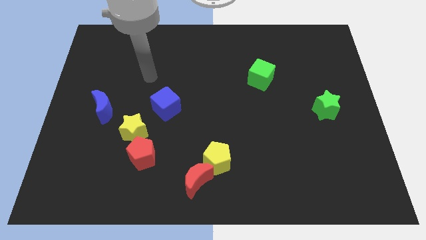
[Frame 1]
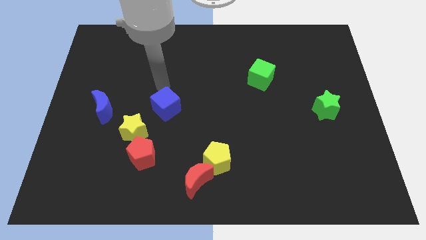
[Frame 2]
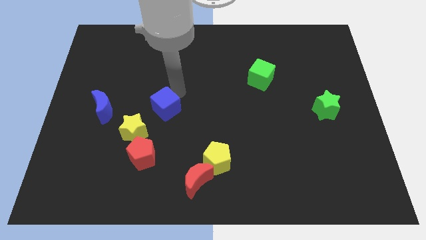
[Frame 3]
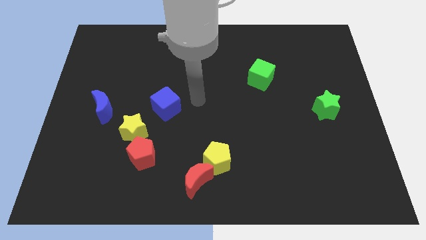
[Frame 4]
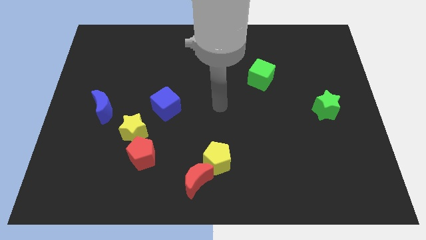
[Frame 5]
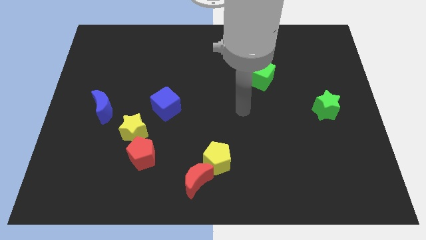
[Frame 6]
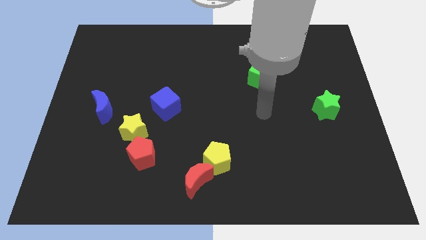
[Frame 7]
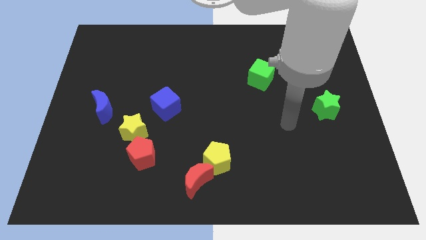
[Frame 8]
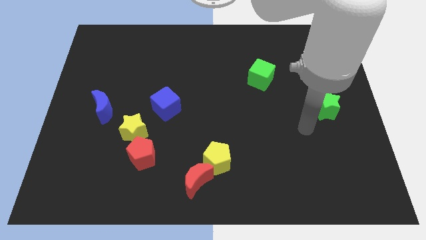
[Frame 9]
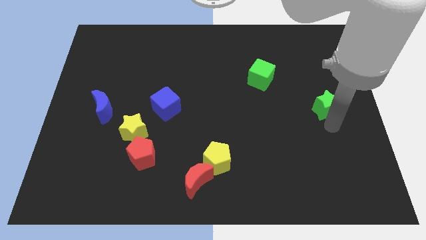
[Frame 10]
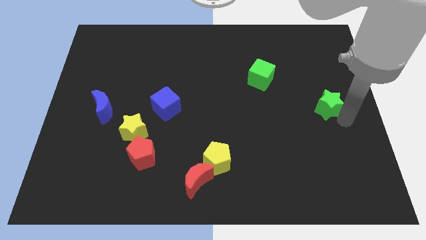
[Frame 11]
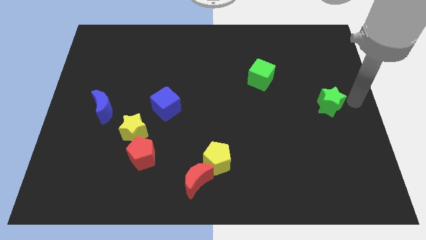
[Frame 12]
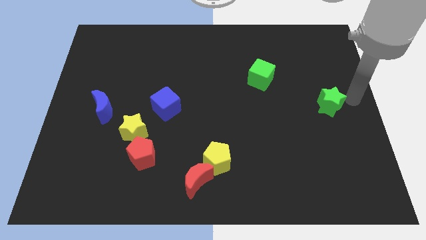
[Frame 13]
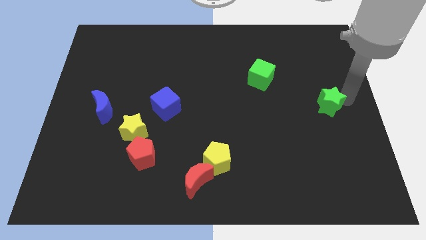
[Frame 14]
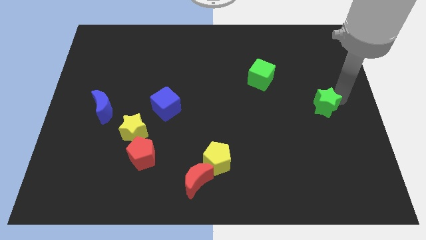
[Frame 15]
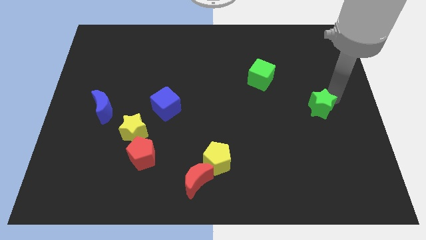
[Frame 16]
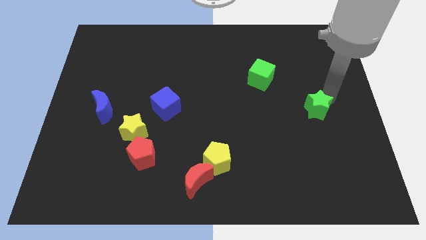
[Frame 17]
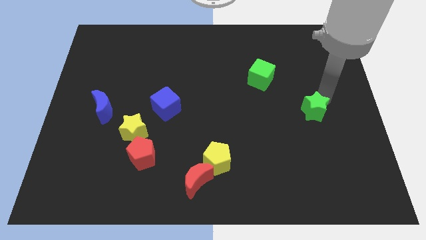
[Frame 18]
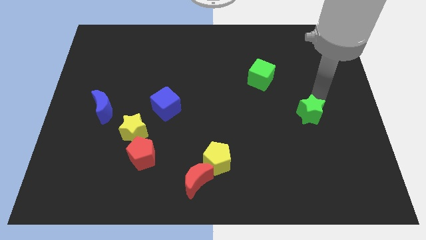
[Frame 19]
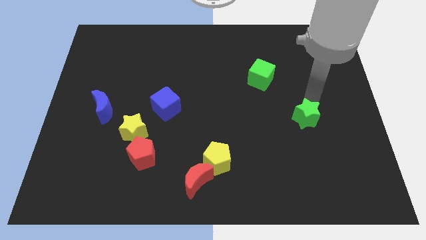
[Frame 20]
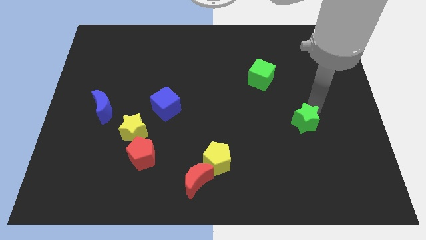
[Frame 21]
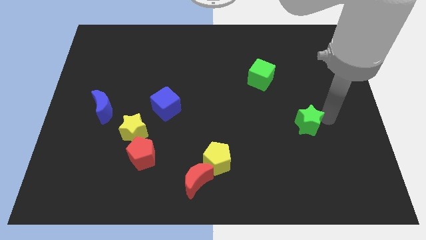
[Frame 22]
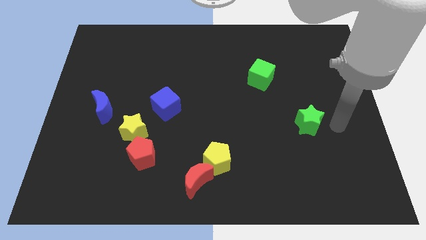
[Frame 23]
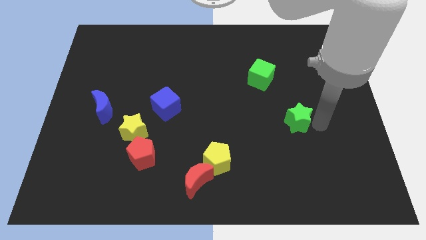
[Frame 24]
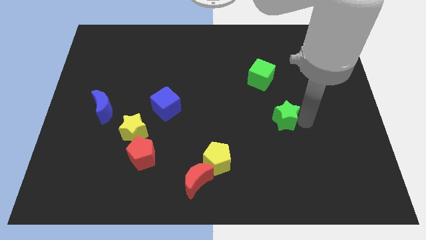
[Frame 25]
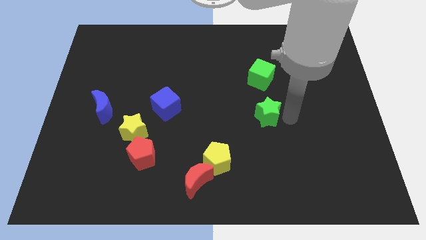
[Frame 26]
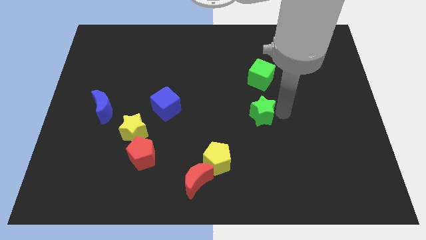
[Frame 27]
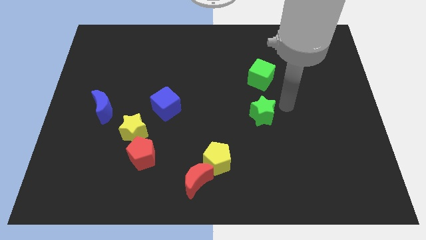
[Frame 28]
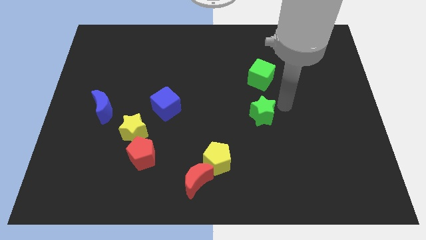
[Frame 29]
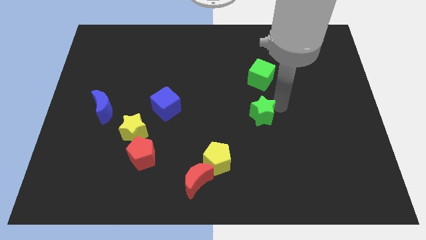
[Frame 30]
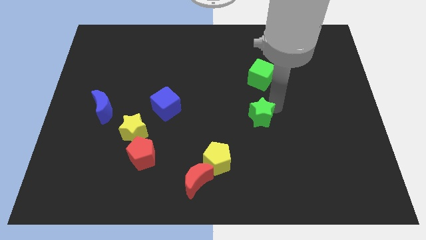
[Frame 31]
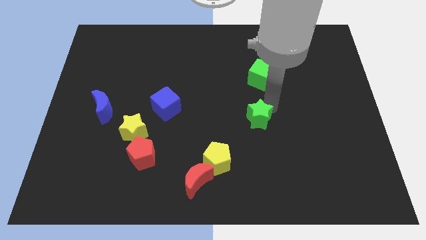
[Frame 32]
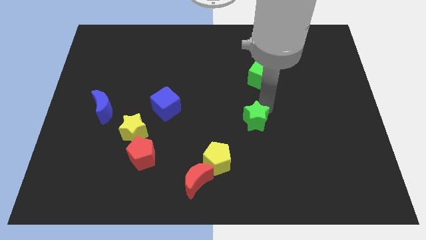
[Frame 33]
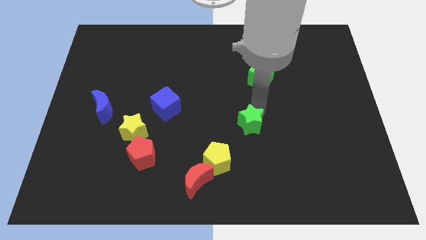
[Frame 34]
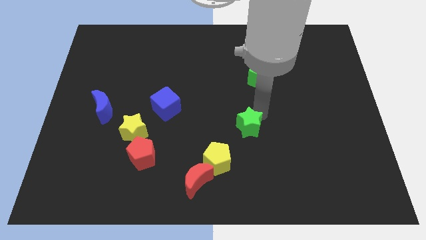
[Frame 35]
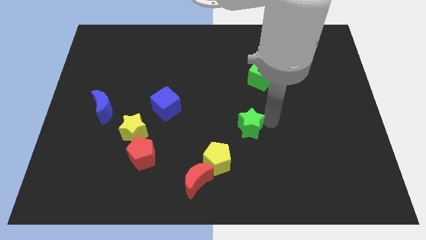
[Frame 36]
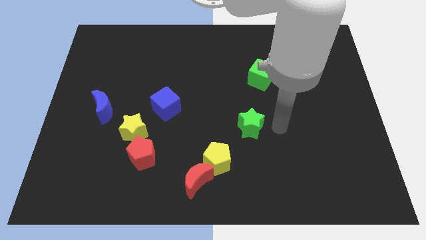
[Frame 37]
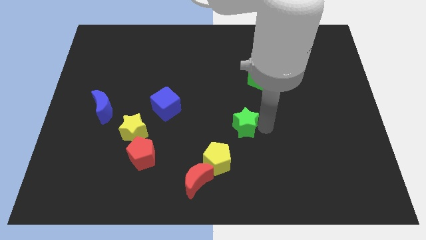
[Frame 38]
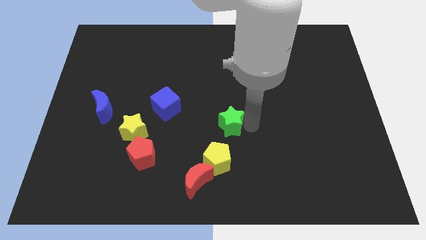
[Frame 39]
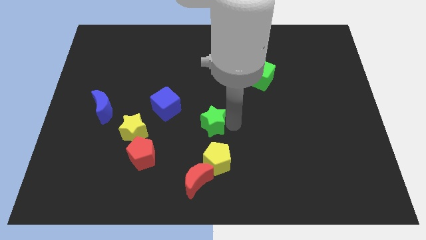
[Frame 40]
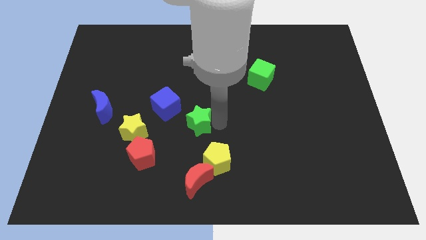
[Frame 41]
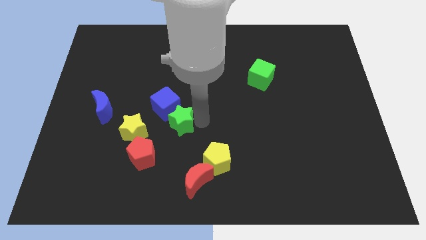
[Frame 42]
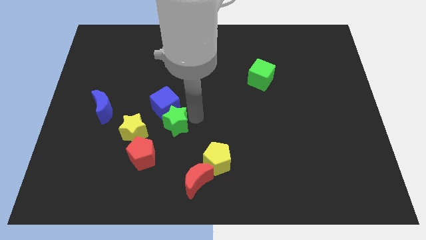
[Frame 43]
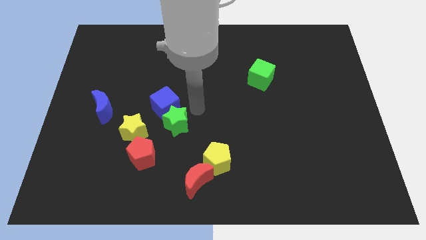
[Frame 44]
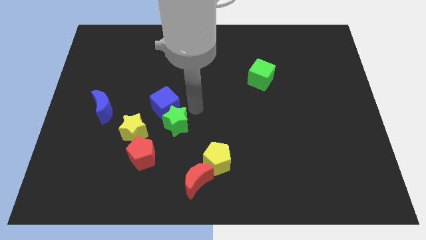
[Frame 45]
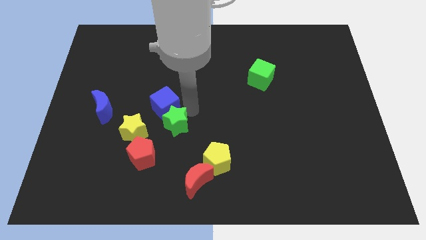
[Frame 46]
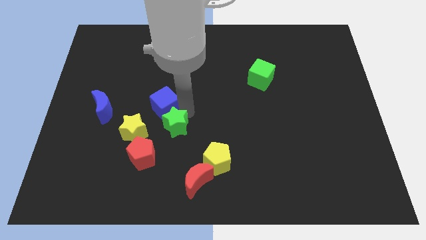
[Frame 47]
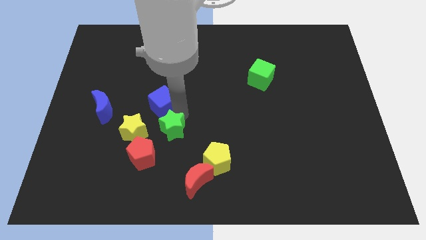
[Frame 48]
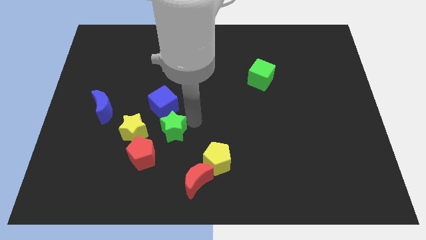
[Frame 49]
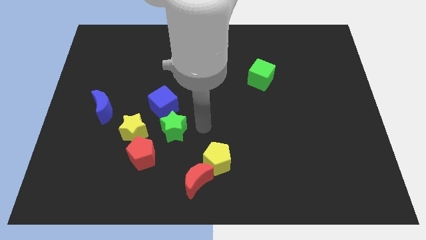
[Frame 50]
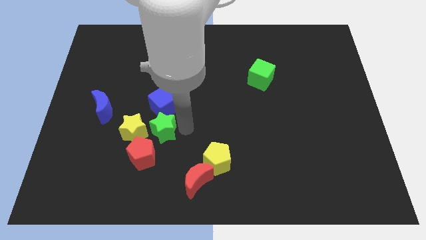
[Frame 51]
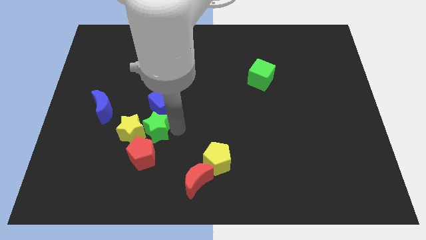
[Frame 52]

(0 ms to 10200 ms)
push the green star towards the yellow star

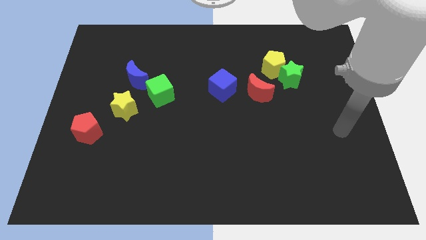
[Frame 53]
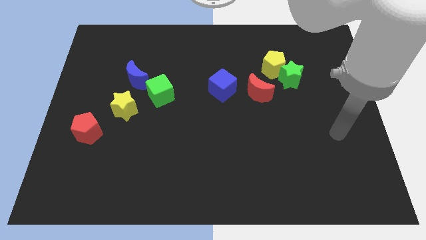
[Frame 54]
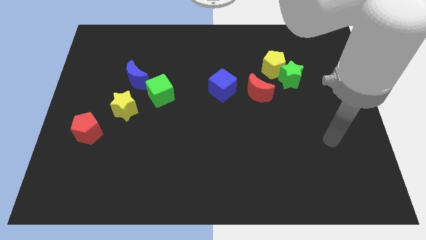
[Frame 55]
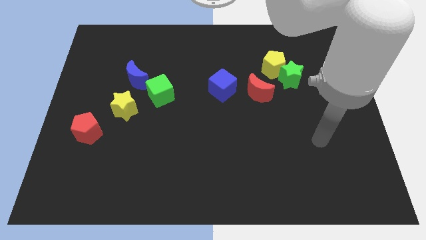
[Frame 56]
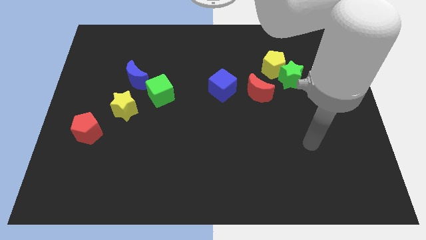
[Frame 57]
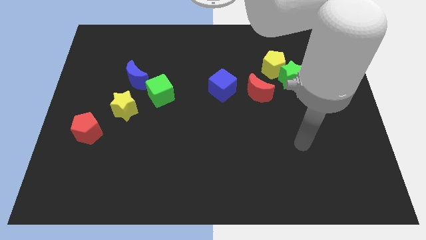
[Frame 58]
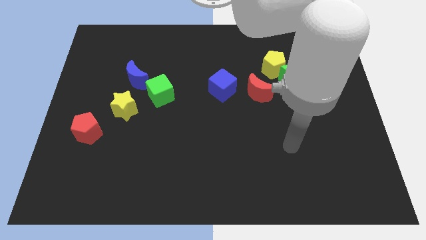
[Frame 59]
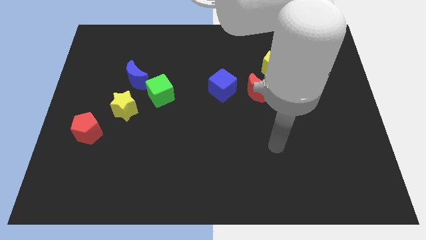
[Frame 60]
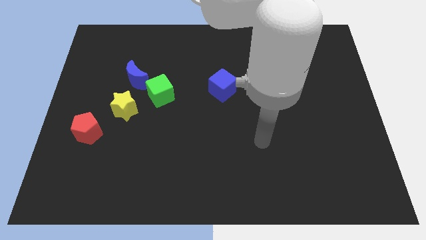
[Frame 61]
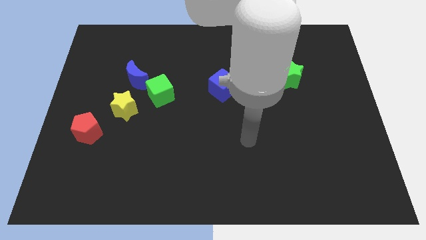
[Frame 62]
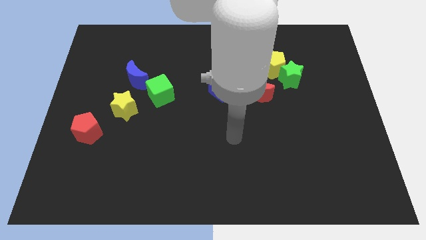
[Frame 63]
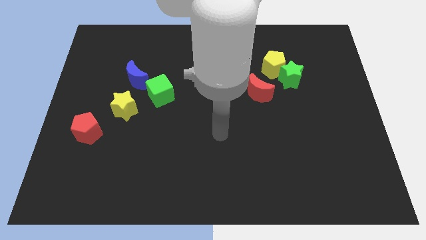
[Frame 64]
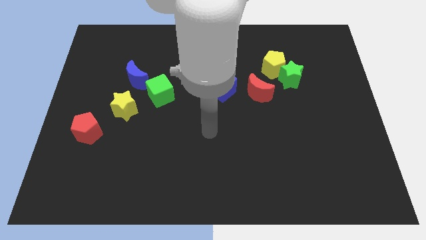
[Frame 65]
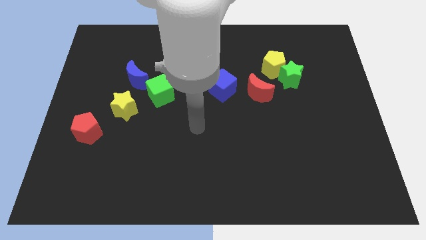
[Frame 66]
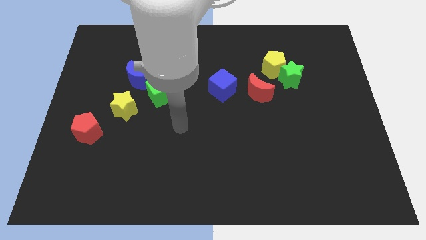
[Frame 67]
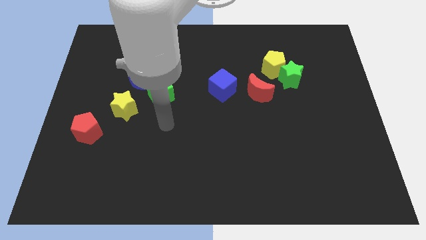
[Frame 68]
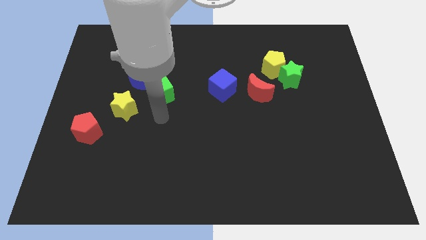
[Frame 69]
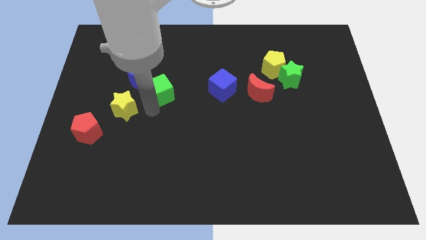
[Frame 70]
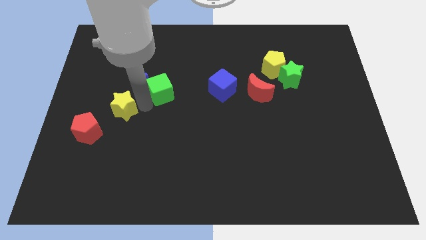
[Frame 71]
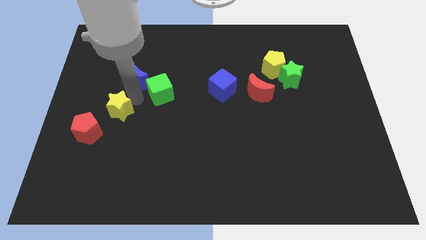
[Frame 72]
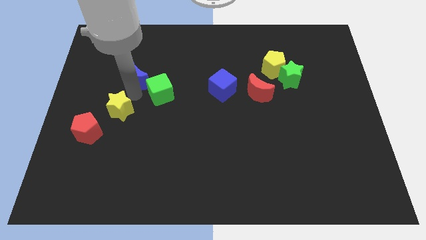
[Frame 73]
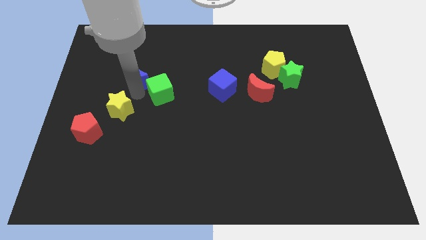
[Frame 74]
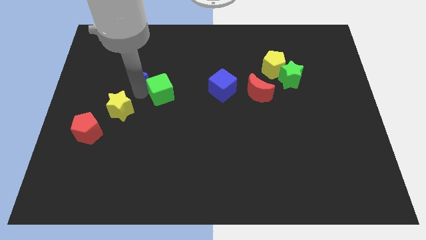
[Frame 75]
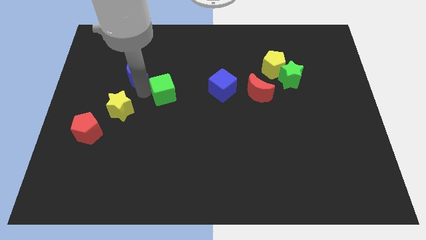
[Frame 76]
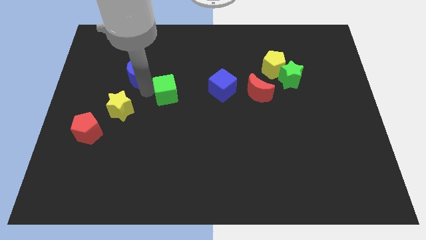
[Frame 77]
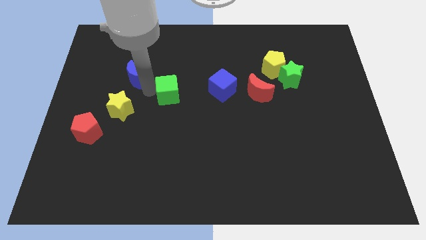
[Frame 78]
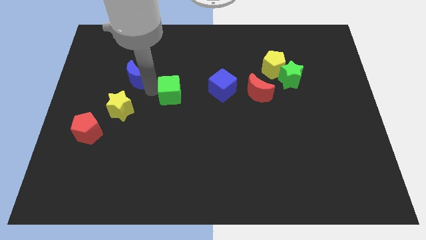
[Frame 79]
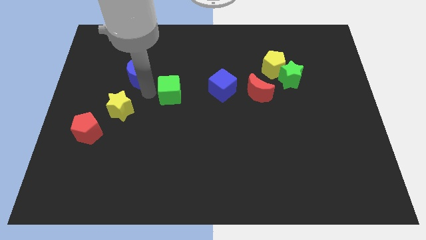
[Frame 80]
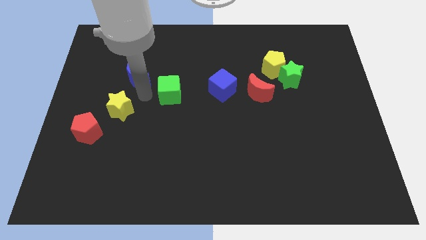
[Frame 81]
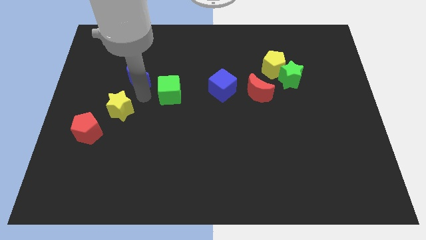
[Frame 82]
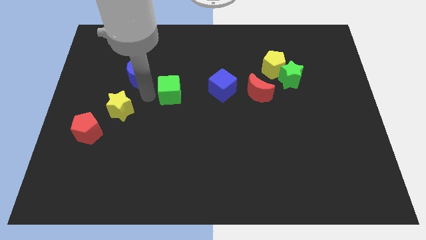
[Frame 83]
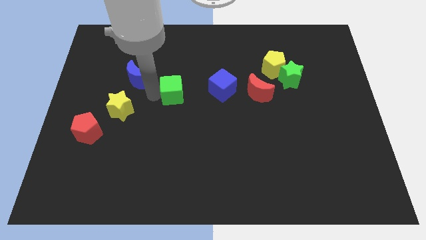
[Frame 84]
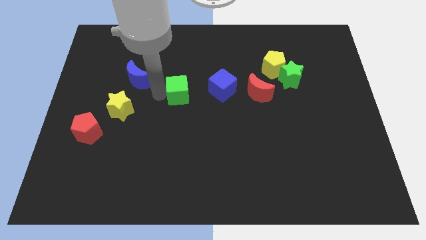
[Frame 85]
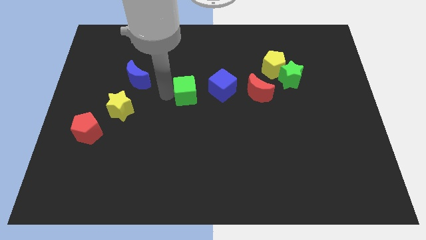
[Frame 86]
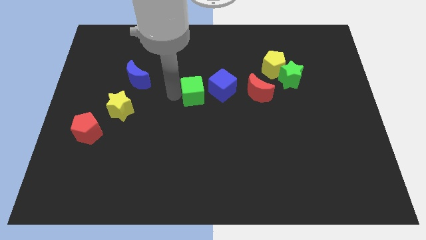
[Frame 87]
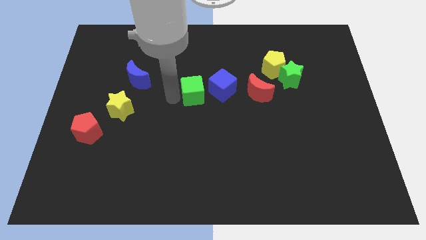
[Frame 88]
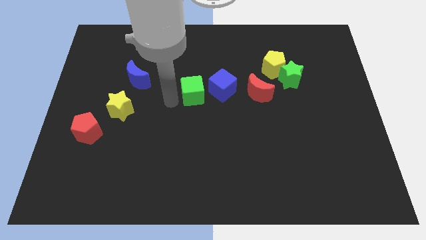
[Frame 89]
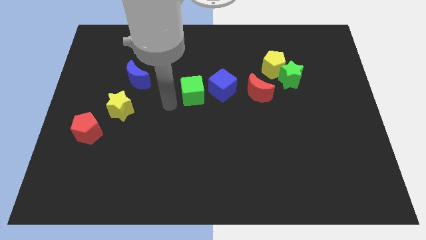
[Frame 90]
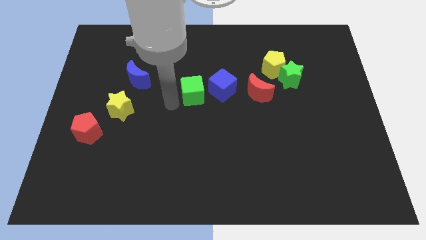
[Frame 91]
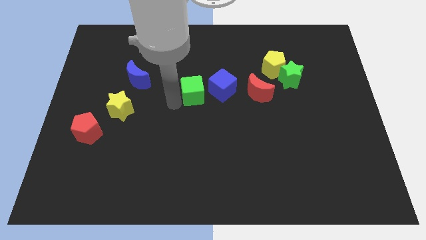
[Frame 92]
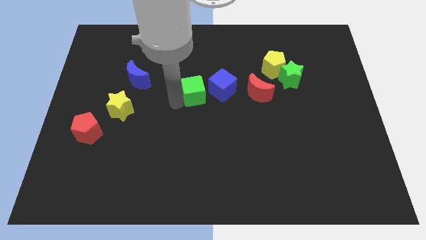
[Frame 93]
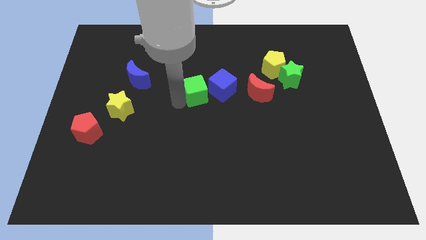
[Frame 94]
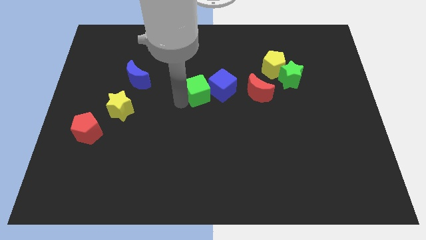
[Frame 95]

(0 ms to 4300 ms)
slide the green cube next to the blue cube
